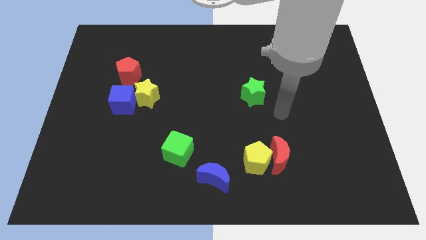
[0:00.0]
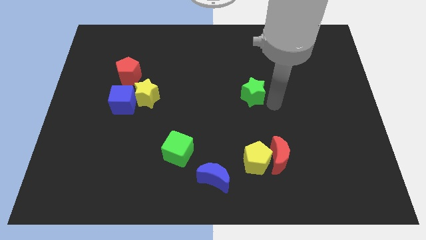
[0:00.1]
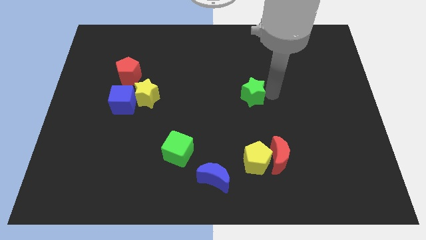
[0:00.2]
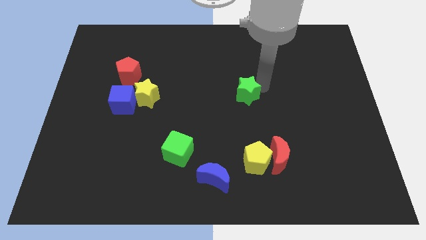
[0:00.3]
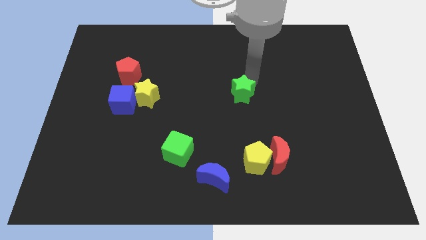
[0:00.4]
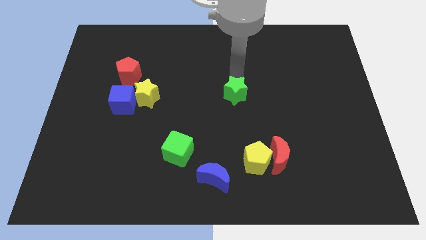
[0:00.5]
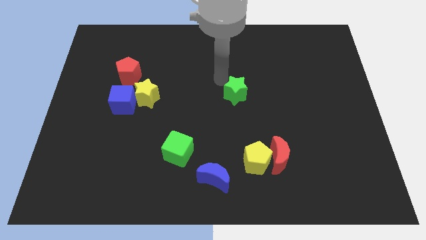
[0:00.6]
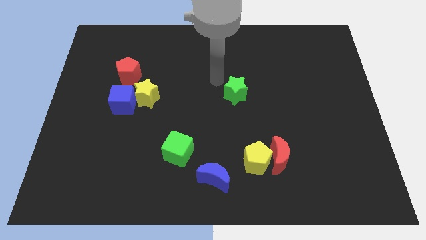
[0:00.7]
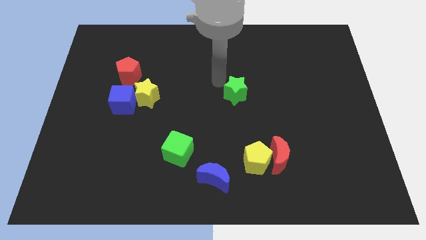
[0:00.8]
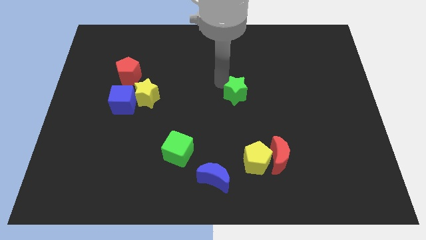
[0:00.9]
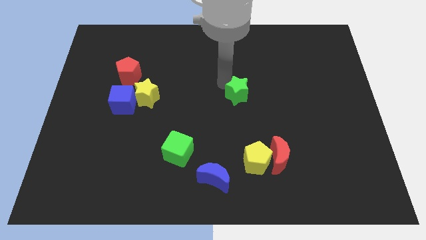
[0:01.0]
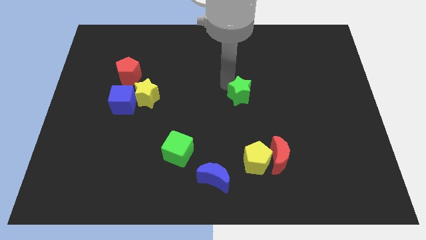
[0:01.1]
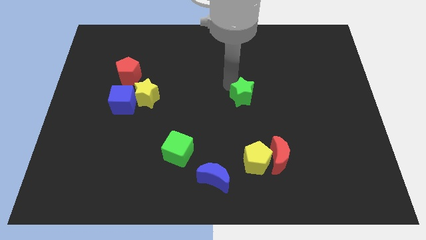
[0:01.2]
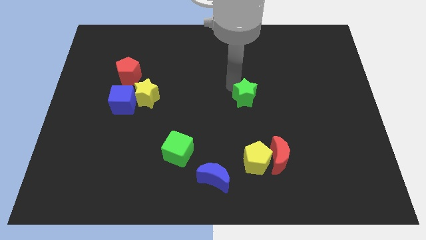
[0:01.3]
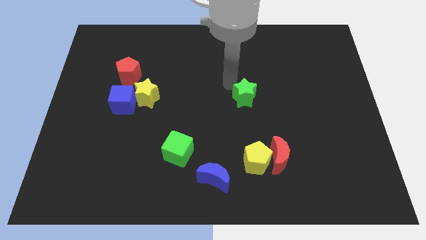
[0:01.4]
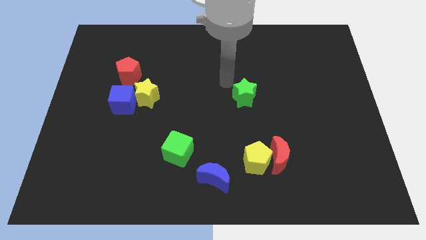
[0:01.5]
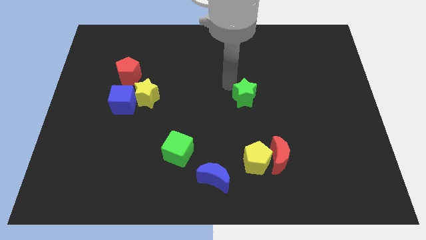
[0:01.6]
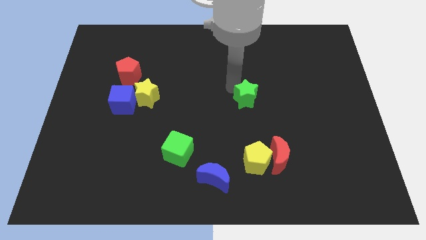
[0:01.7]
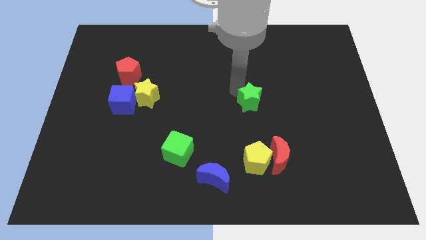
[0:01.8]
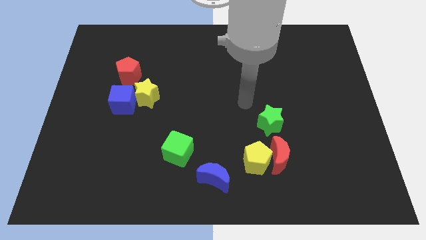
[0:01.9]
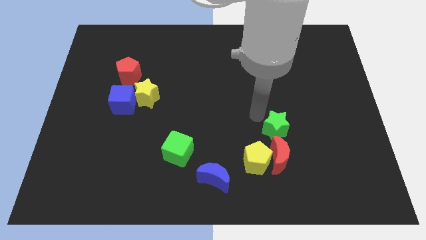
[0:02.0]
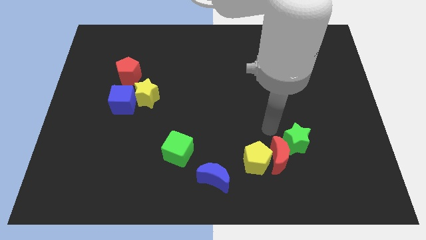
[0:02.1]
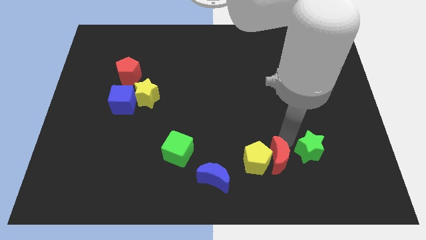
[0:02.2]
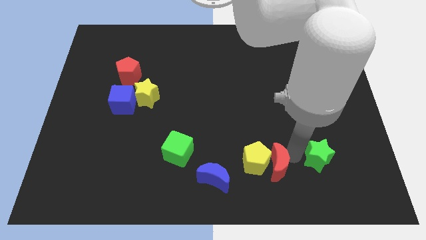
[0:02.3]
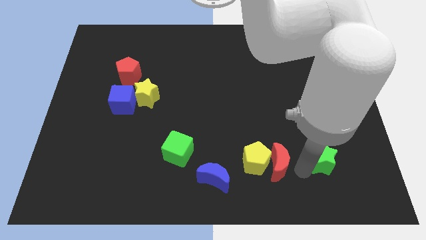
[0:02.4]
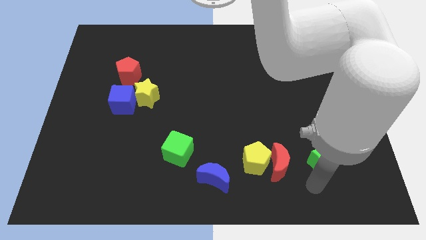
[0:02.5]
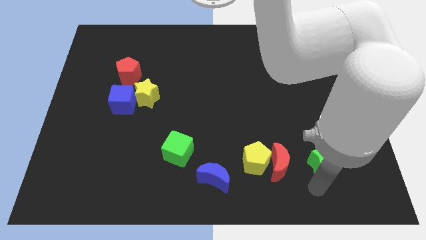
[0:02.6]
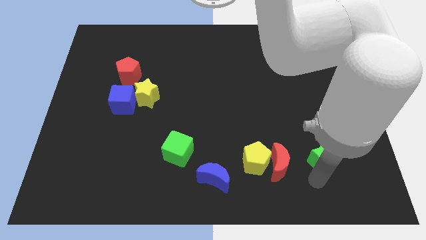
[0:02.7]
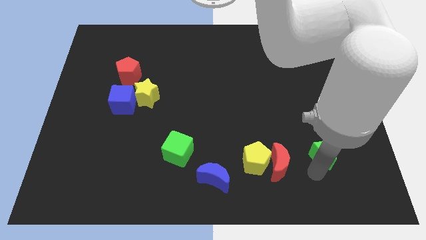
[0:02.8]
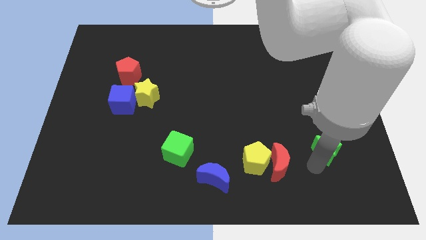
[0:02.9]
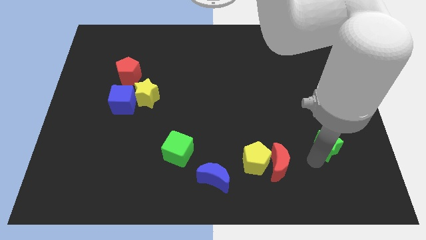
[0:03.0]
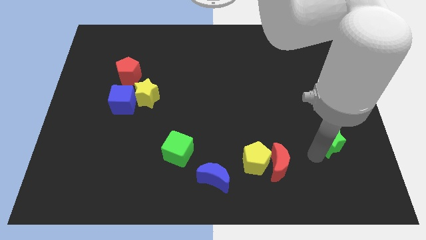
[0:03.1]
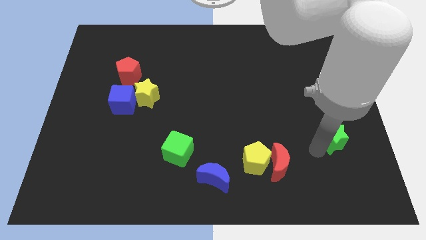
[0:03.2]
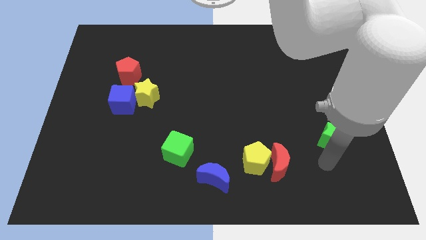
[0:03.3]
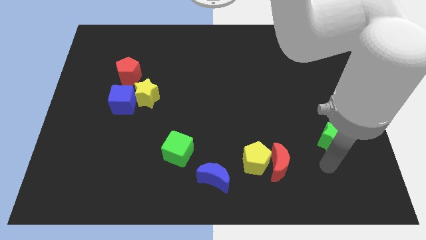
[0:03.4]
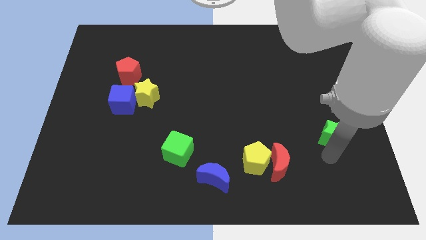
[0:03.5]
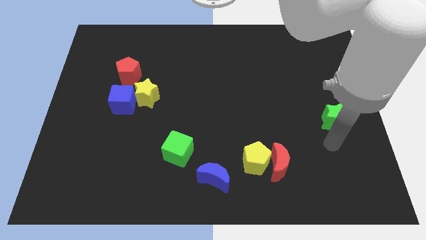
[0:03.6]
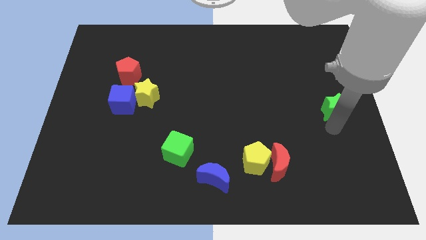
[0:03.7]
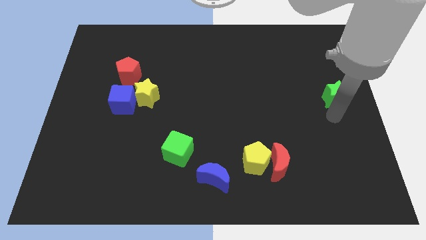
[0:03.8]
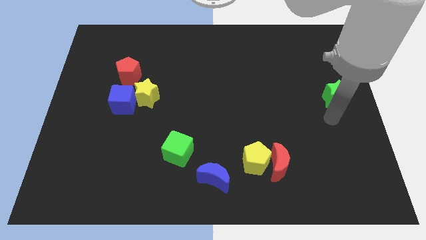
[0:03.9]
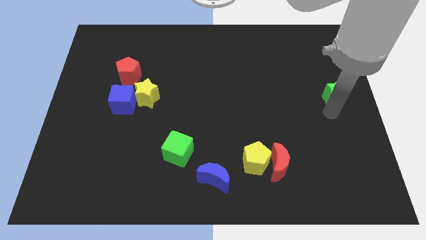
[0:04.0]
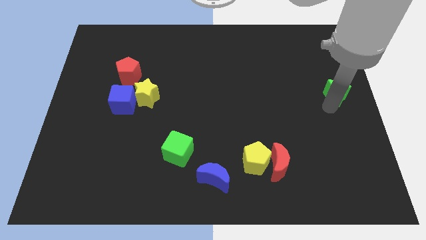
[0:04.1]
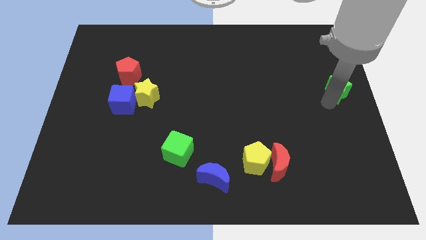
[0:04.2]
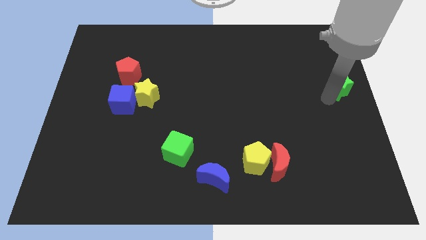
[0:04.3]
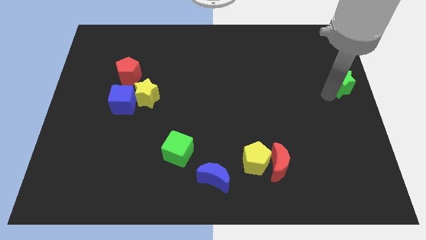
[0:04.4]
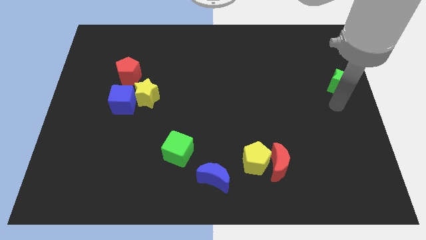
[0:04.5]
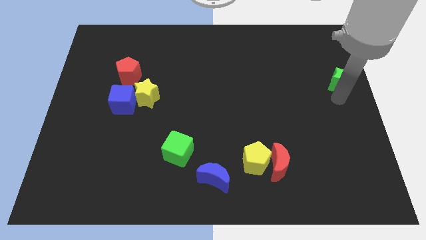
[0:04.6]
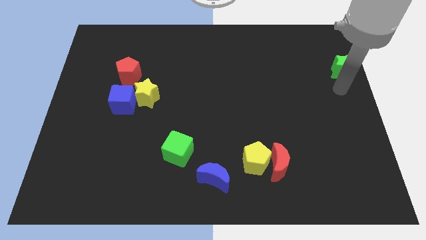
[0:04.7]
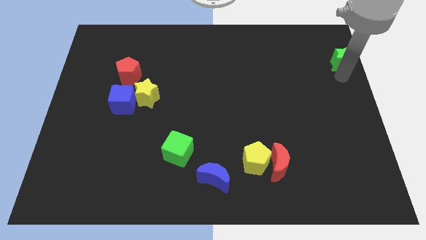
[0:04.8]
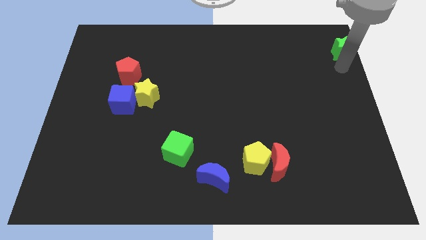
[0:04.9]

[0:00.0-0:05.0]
move the green star to the top right

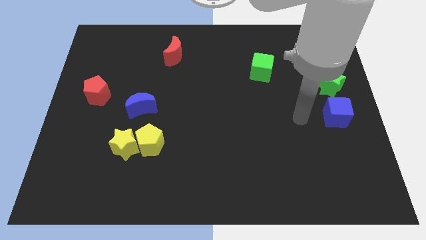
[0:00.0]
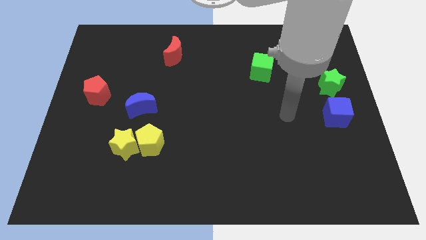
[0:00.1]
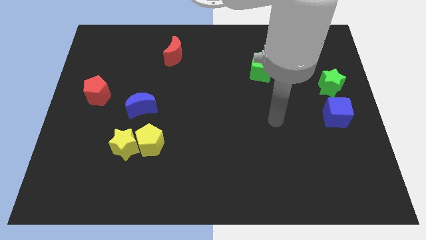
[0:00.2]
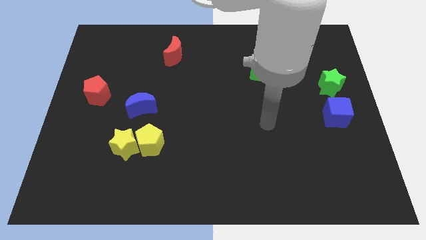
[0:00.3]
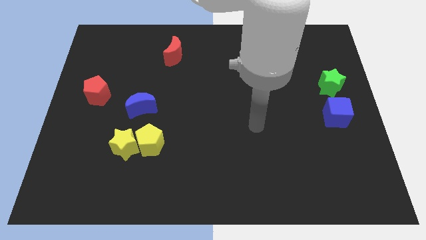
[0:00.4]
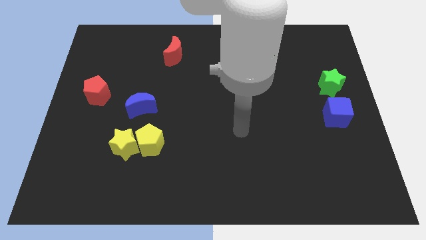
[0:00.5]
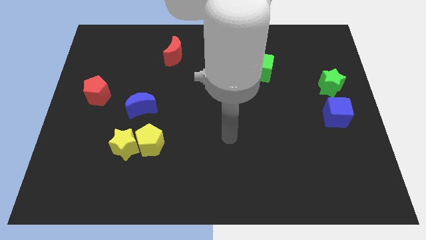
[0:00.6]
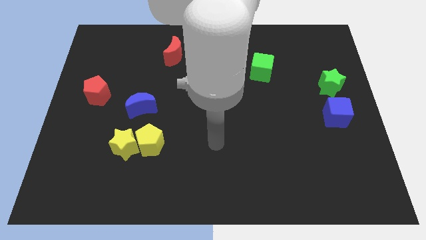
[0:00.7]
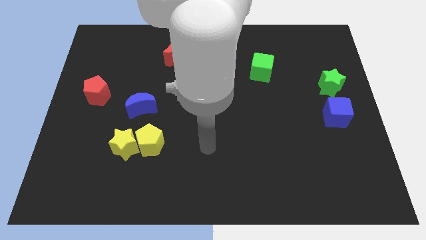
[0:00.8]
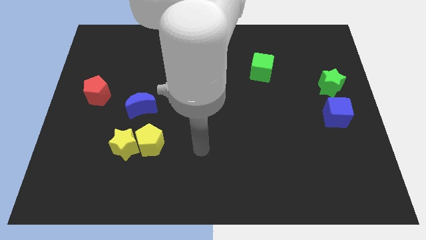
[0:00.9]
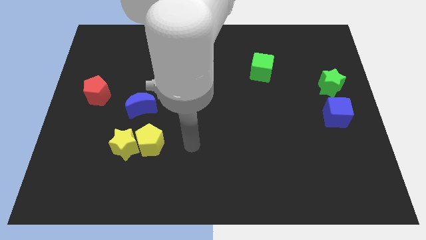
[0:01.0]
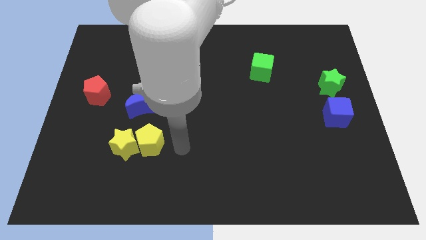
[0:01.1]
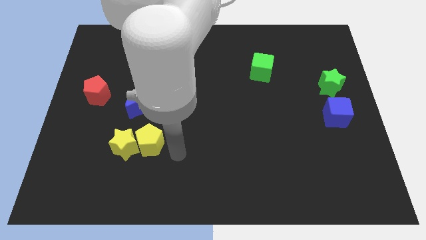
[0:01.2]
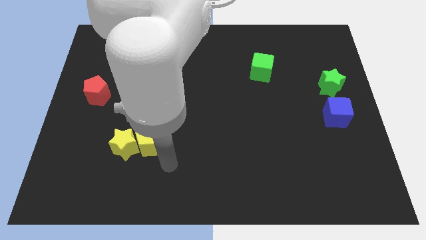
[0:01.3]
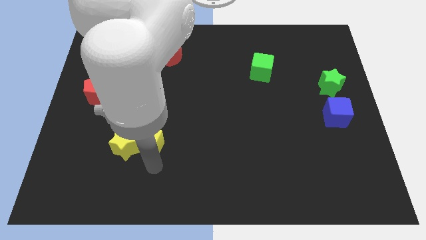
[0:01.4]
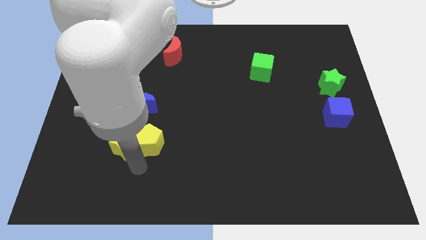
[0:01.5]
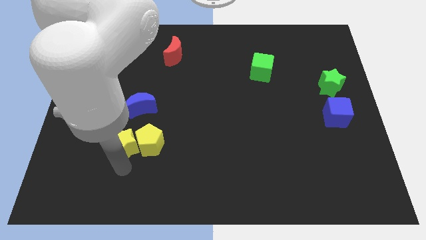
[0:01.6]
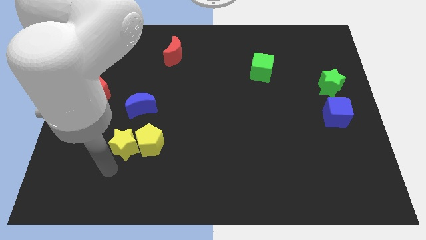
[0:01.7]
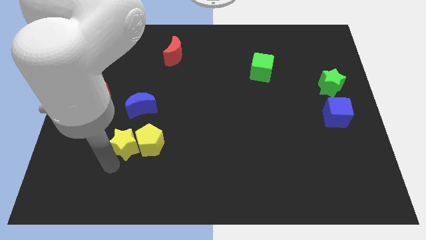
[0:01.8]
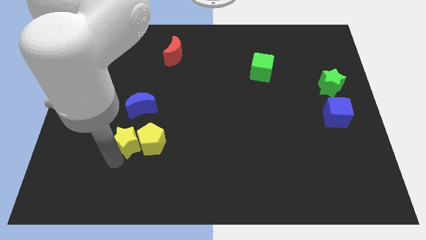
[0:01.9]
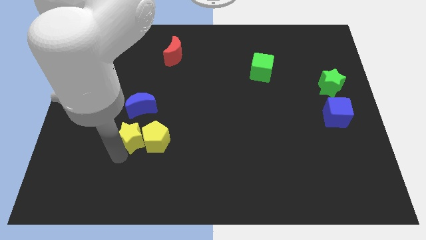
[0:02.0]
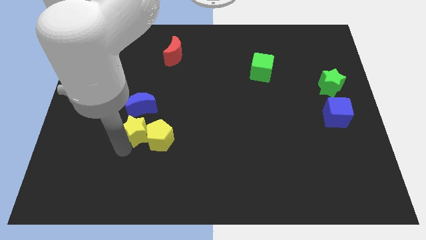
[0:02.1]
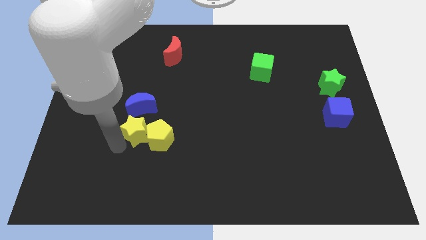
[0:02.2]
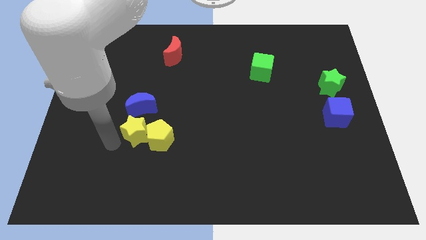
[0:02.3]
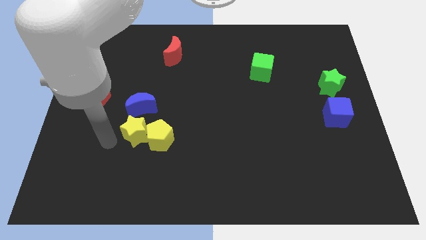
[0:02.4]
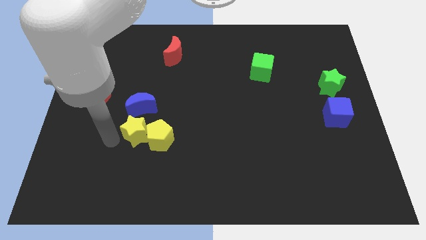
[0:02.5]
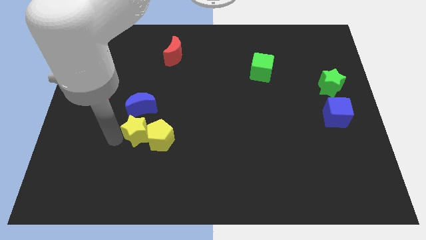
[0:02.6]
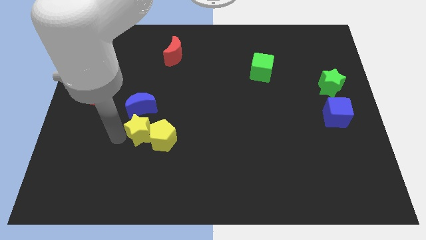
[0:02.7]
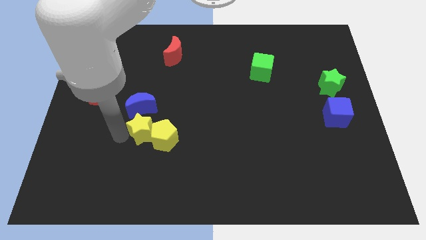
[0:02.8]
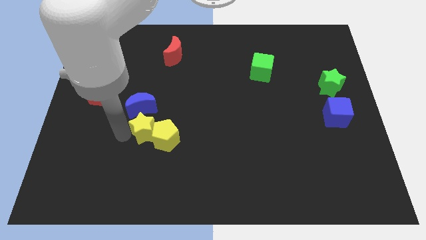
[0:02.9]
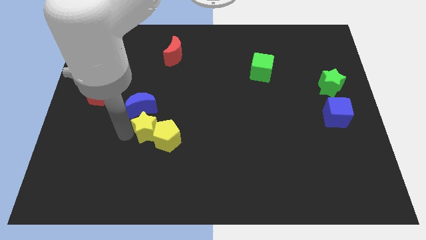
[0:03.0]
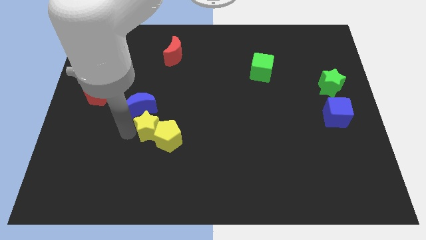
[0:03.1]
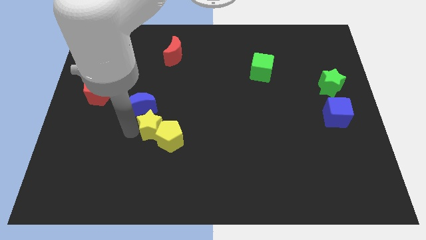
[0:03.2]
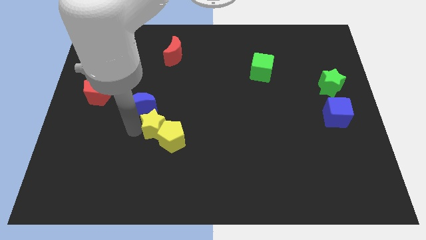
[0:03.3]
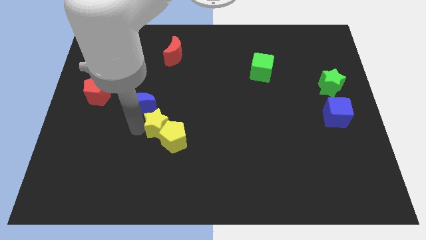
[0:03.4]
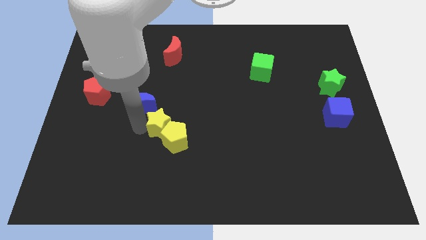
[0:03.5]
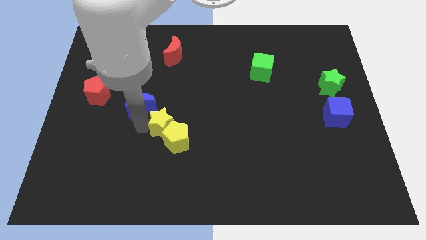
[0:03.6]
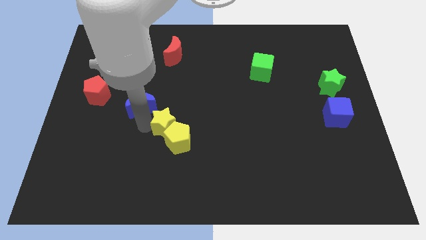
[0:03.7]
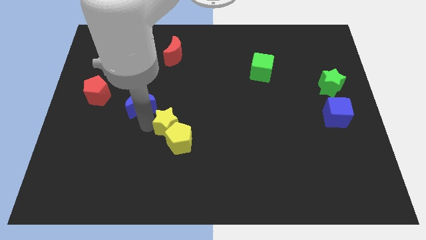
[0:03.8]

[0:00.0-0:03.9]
move the yellow star to the middle of the board
